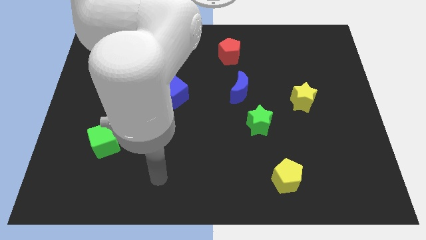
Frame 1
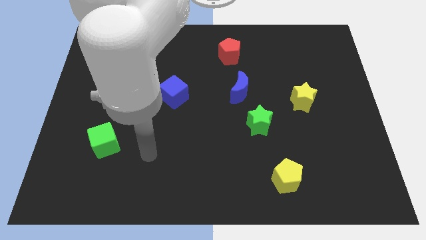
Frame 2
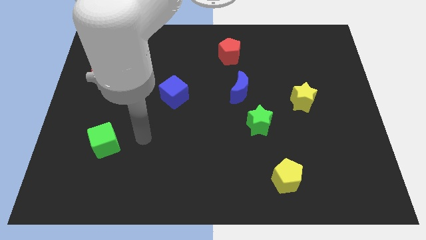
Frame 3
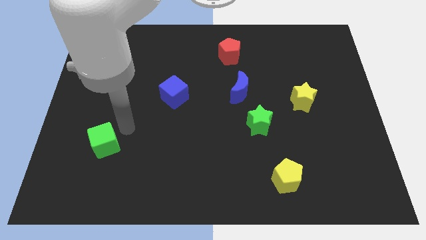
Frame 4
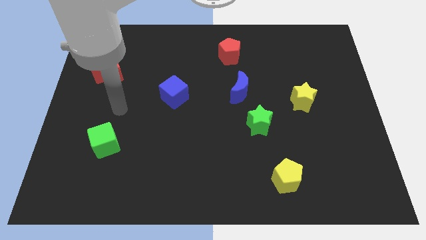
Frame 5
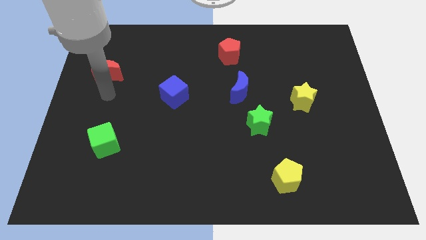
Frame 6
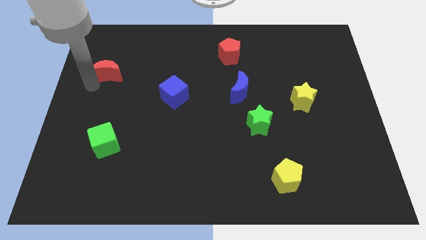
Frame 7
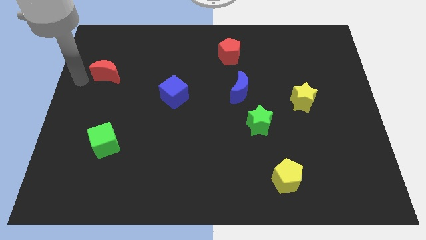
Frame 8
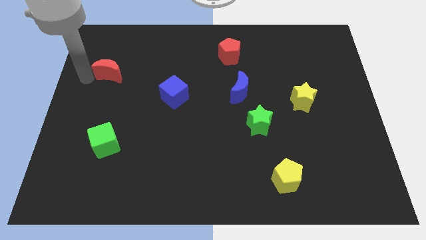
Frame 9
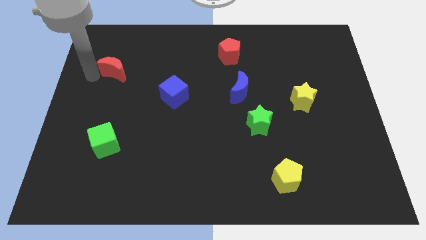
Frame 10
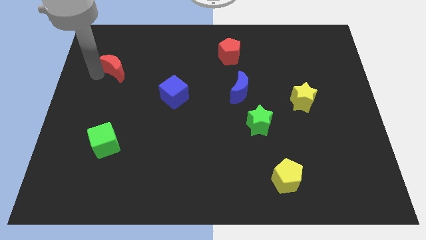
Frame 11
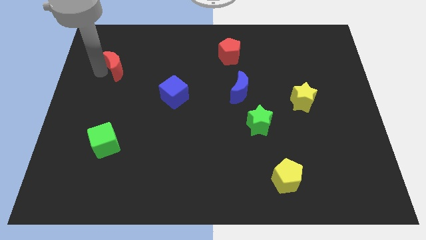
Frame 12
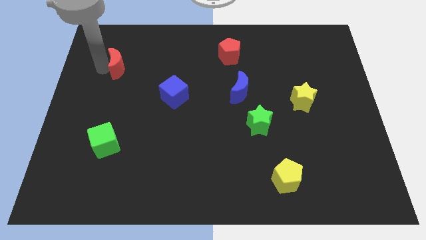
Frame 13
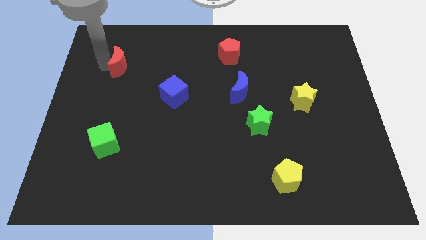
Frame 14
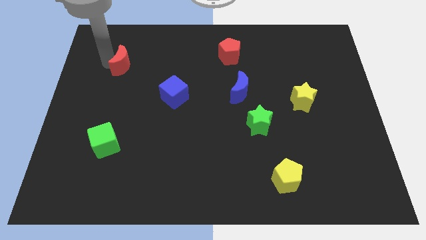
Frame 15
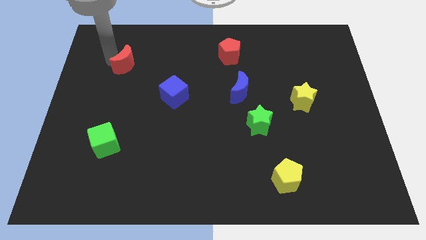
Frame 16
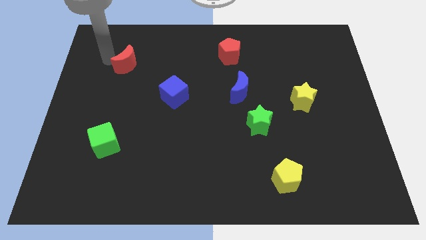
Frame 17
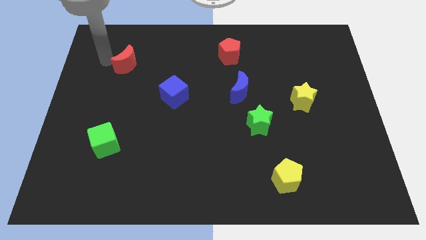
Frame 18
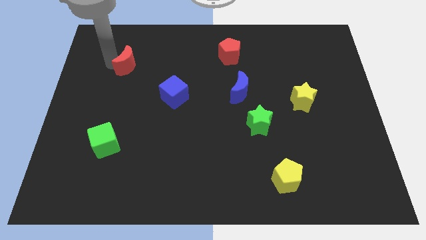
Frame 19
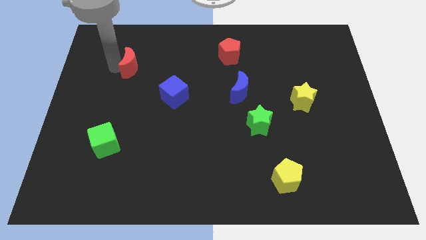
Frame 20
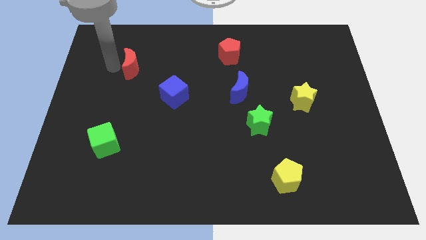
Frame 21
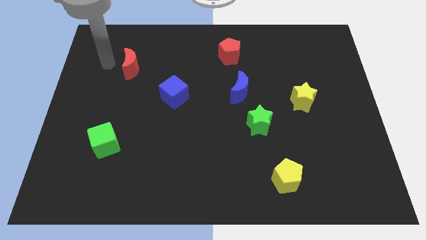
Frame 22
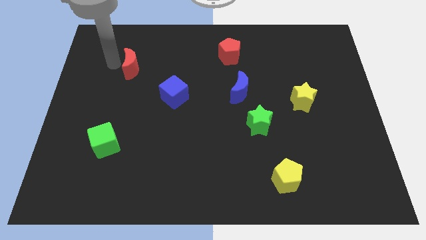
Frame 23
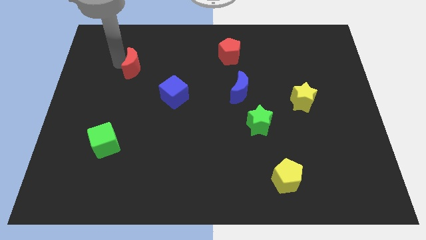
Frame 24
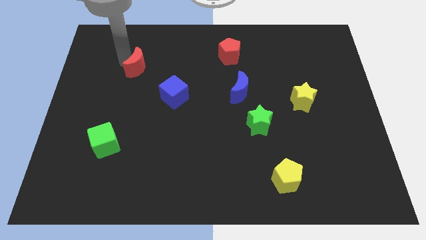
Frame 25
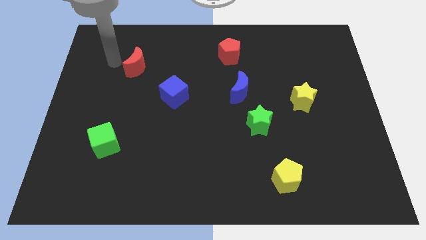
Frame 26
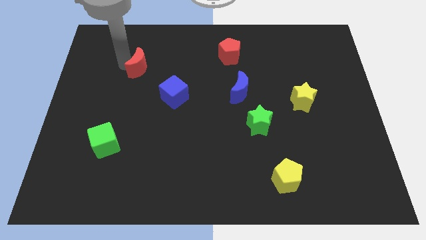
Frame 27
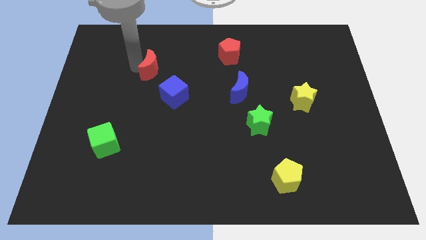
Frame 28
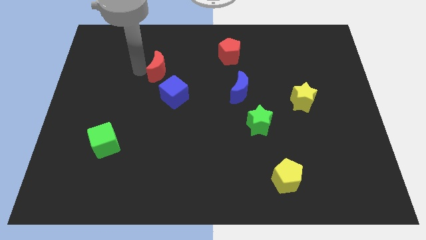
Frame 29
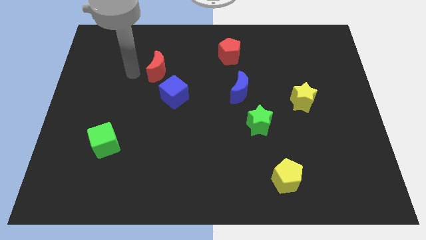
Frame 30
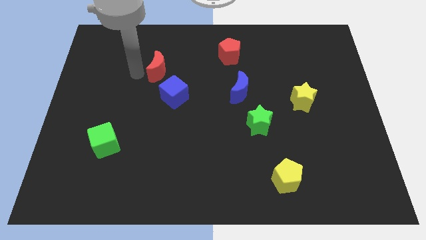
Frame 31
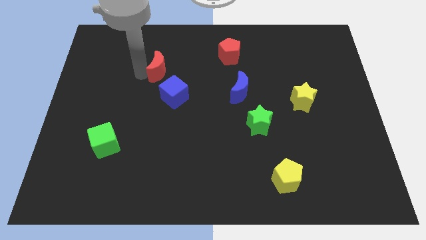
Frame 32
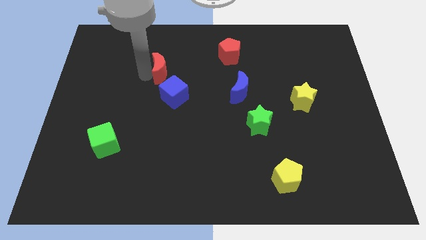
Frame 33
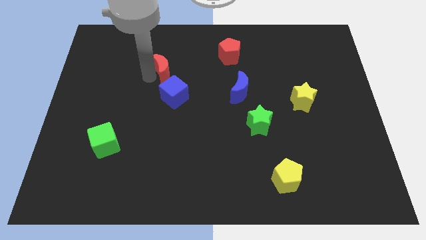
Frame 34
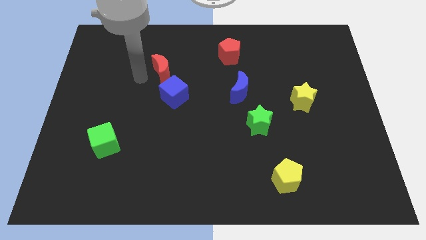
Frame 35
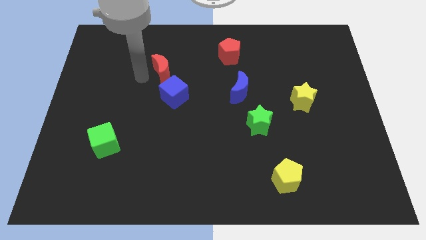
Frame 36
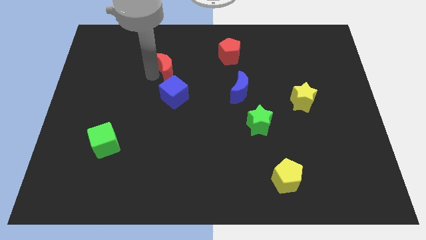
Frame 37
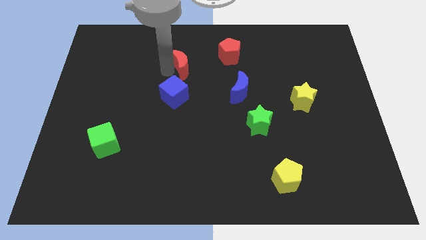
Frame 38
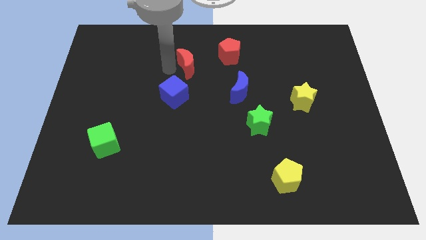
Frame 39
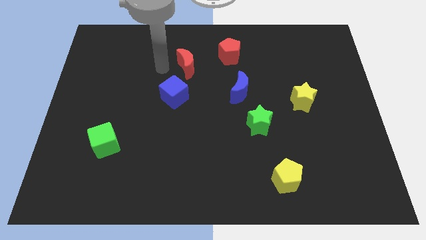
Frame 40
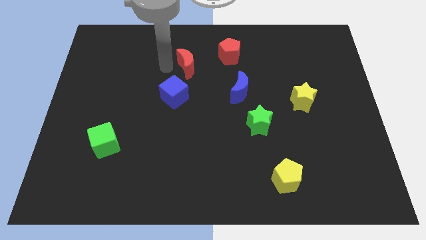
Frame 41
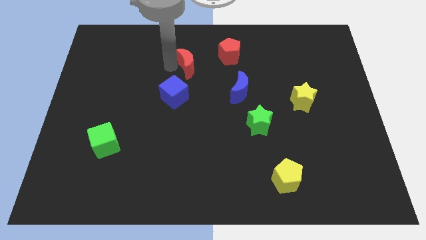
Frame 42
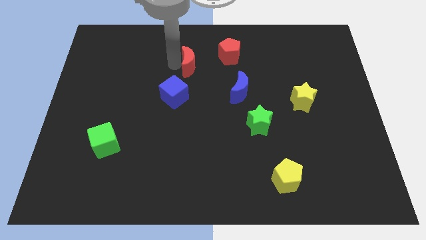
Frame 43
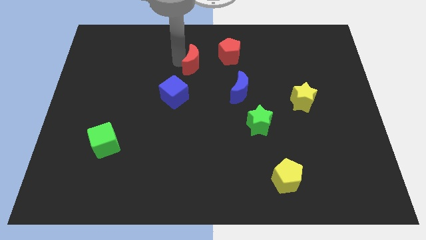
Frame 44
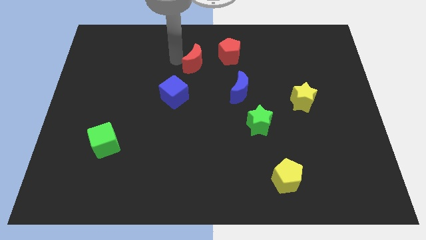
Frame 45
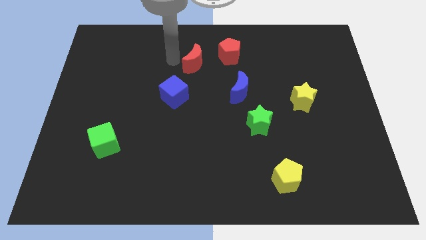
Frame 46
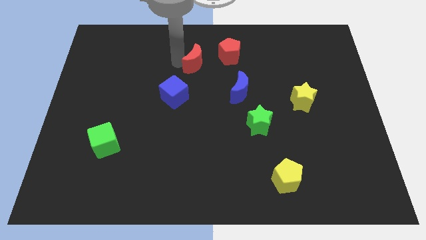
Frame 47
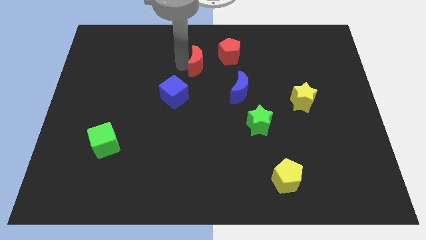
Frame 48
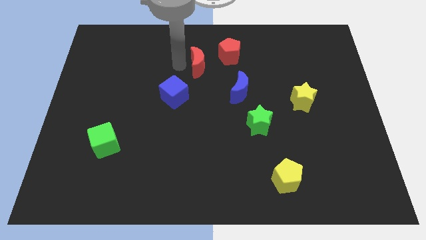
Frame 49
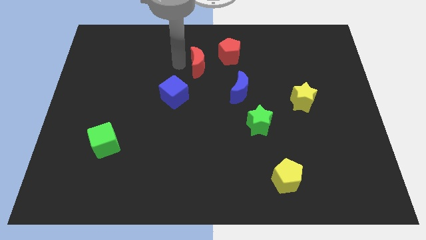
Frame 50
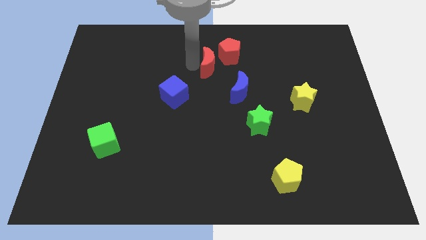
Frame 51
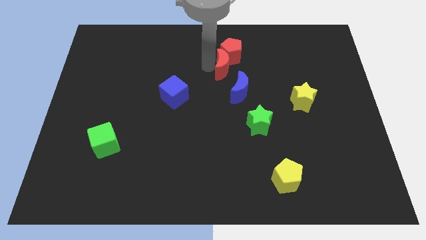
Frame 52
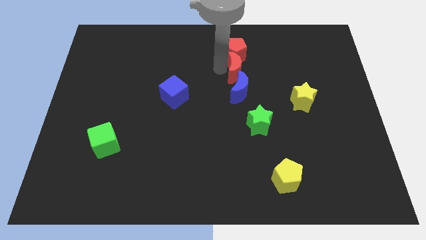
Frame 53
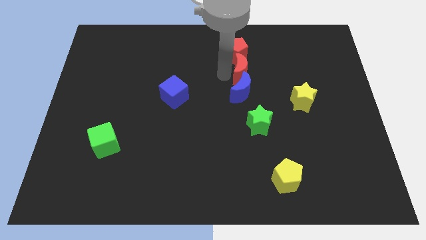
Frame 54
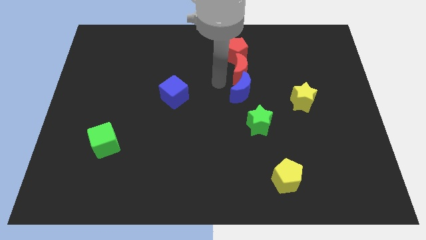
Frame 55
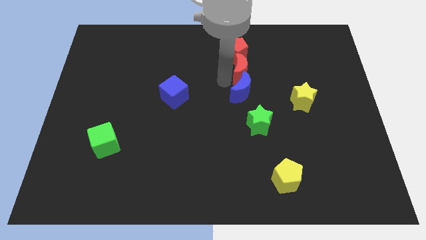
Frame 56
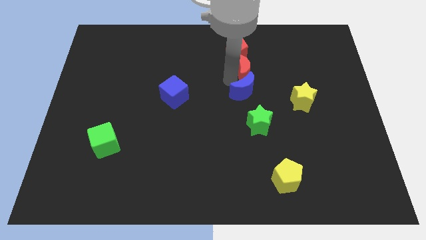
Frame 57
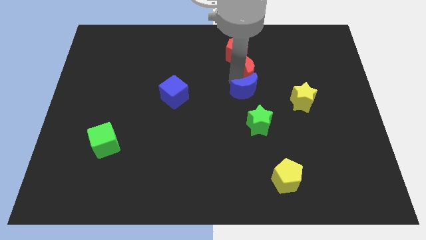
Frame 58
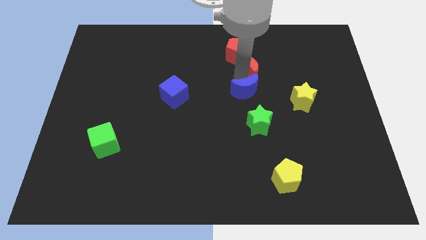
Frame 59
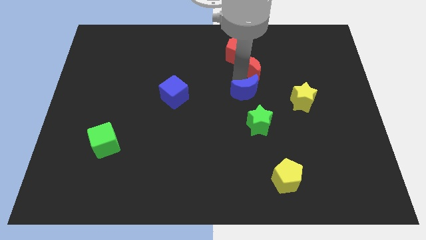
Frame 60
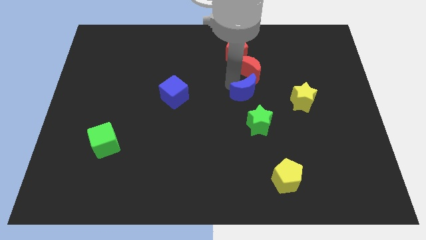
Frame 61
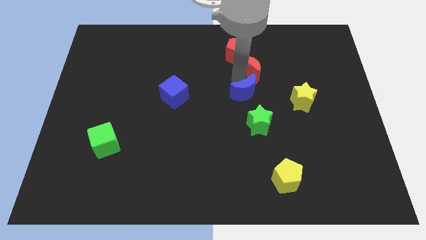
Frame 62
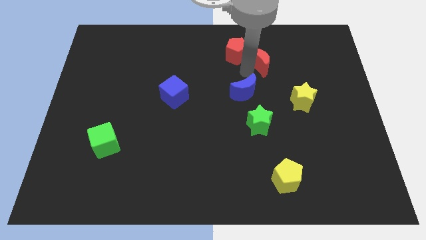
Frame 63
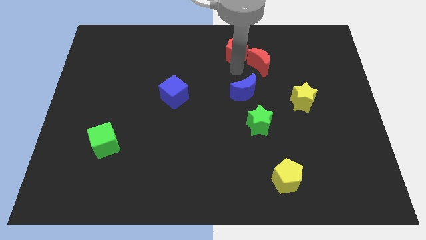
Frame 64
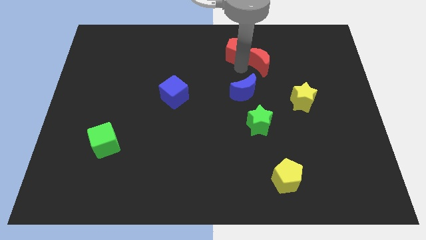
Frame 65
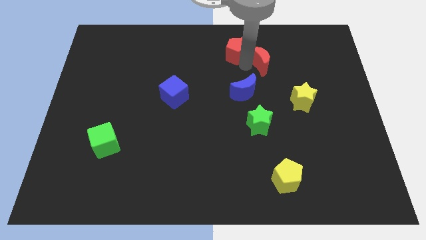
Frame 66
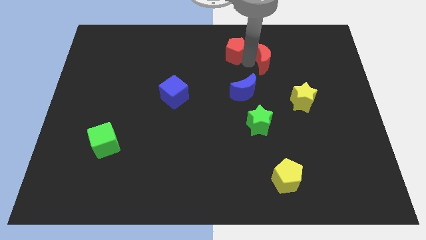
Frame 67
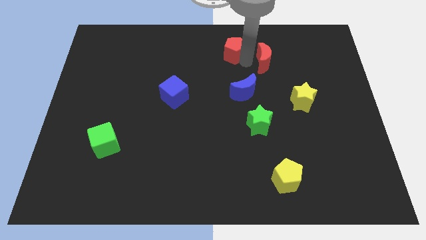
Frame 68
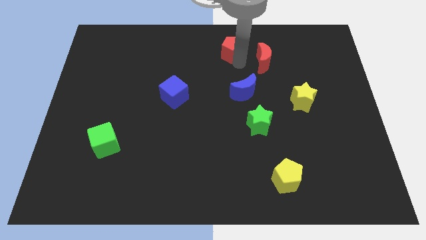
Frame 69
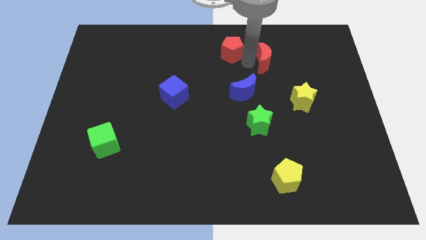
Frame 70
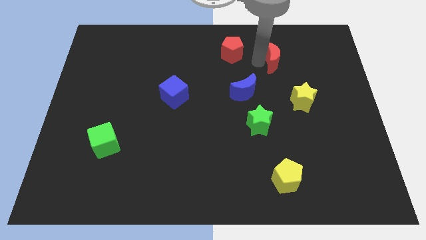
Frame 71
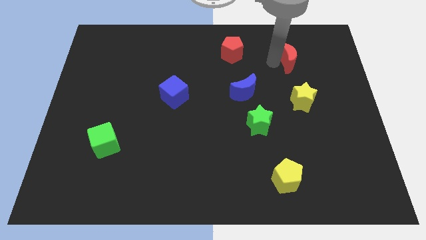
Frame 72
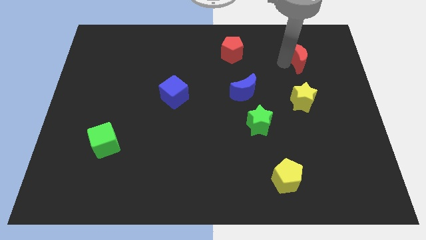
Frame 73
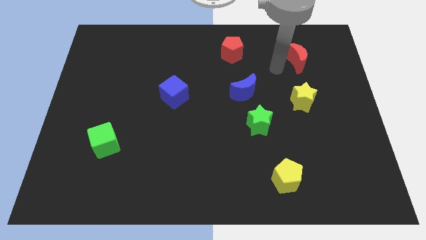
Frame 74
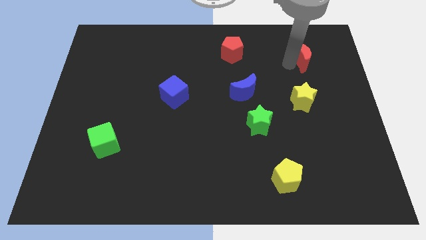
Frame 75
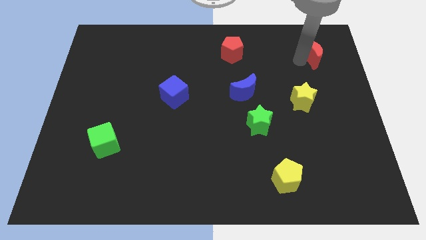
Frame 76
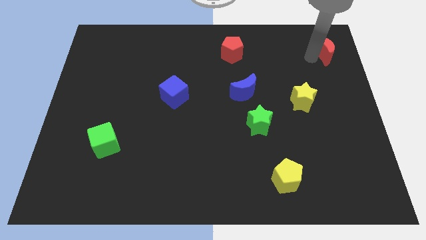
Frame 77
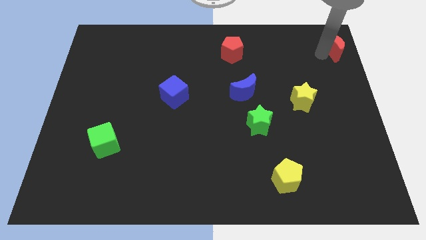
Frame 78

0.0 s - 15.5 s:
slide the red moon to the top right
